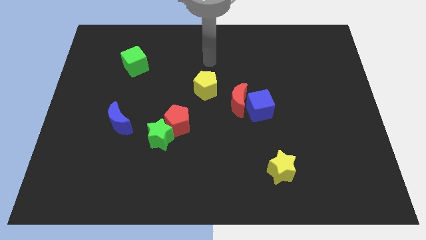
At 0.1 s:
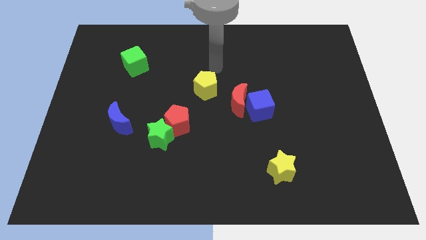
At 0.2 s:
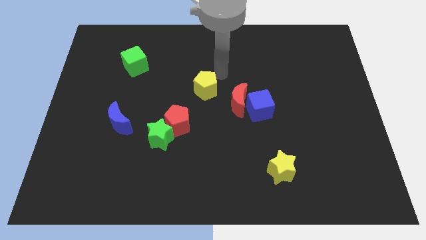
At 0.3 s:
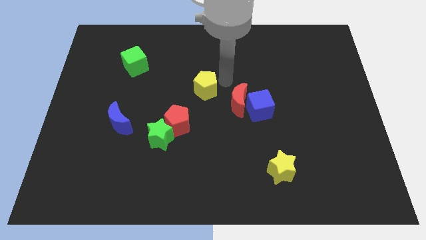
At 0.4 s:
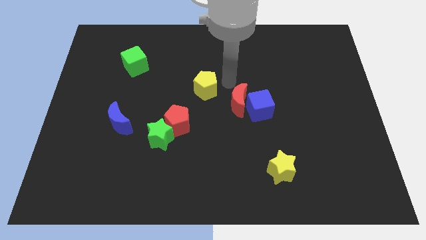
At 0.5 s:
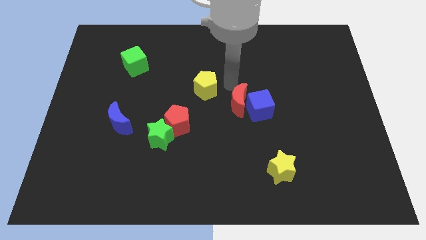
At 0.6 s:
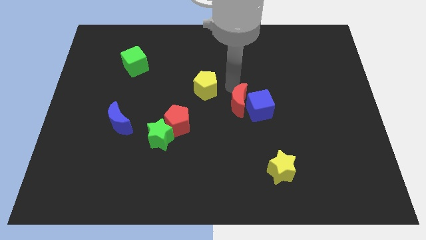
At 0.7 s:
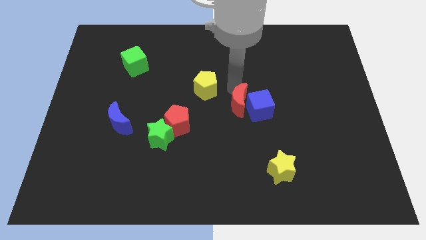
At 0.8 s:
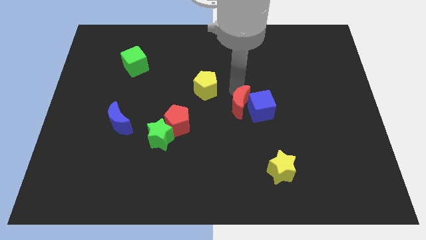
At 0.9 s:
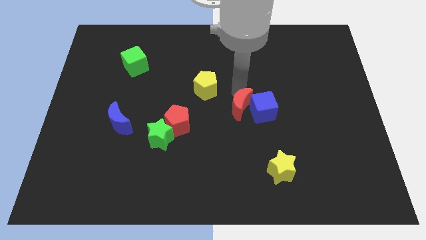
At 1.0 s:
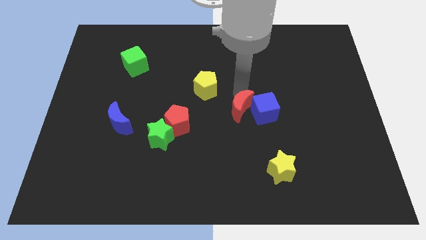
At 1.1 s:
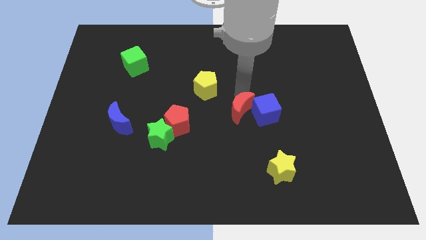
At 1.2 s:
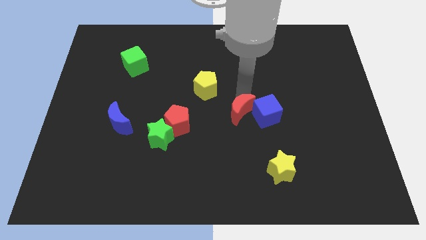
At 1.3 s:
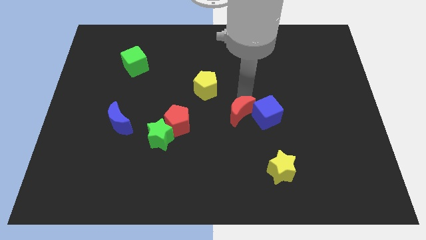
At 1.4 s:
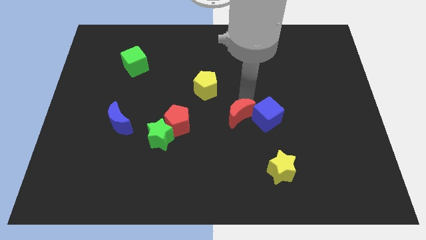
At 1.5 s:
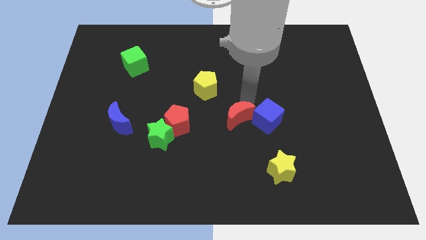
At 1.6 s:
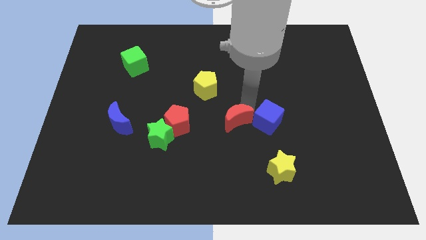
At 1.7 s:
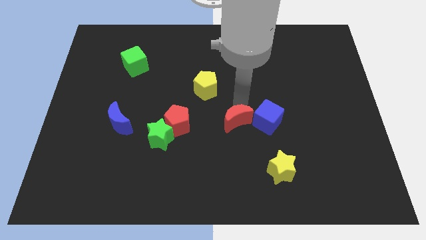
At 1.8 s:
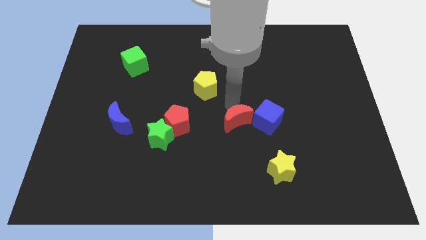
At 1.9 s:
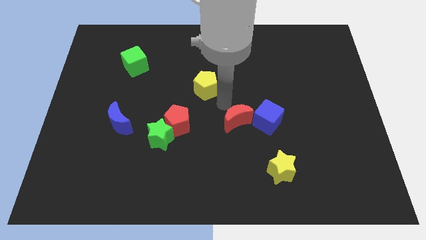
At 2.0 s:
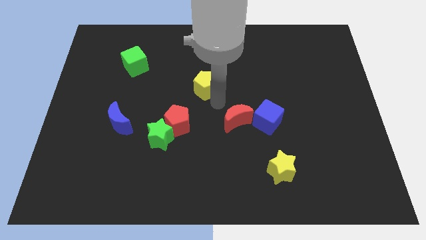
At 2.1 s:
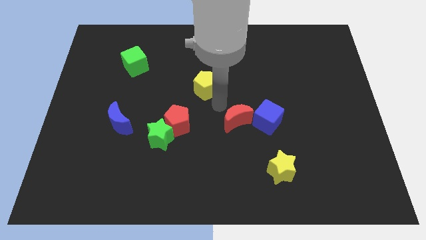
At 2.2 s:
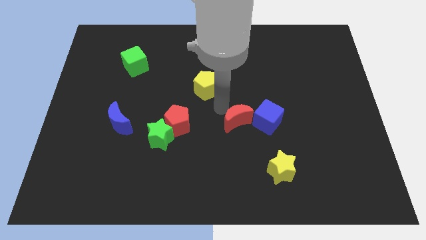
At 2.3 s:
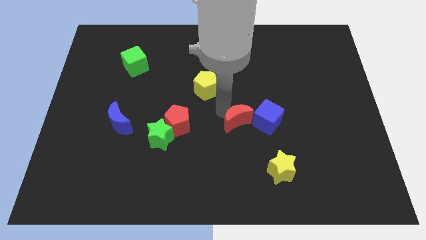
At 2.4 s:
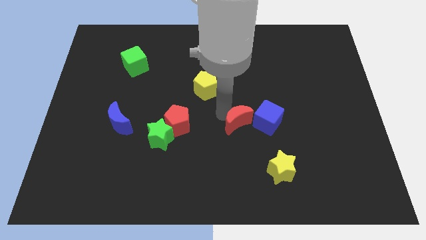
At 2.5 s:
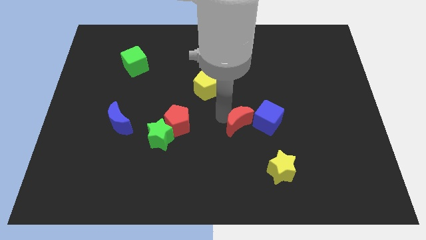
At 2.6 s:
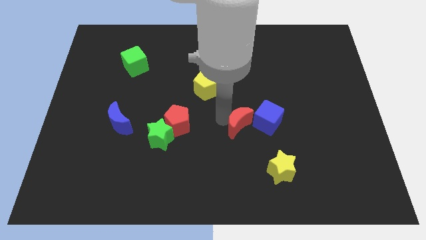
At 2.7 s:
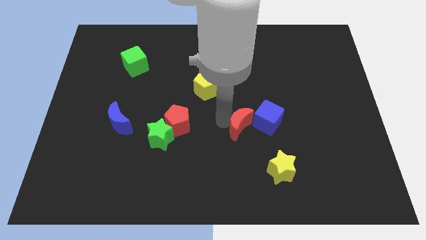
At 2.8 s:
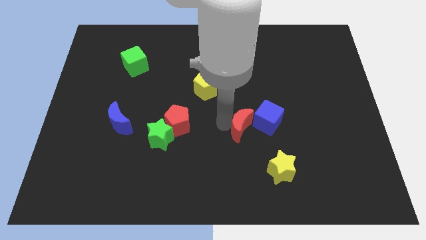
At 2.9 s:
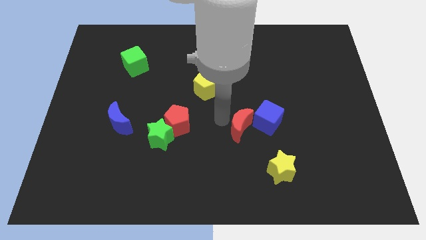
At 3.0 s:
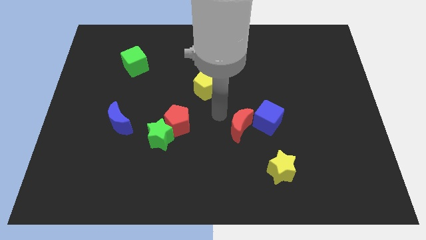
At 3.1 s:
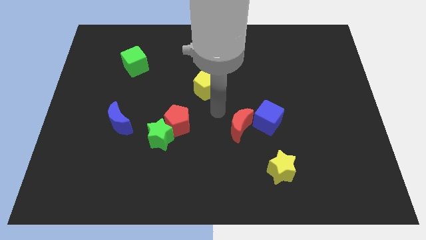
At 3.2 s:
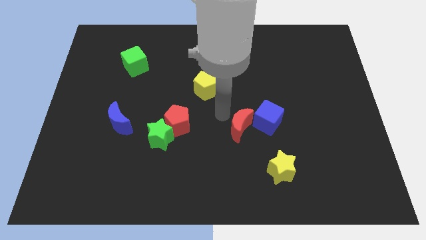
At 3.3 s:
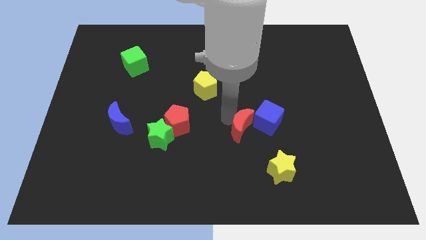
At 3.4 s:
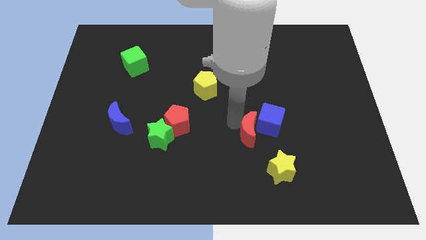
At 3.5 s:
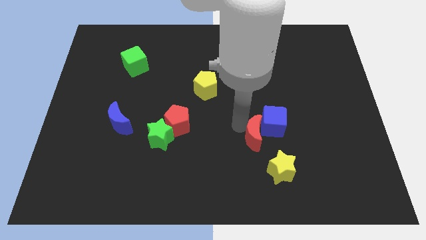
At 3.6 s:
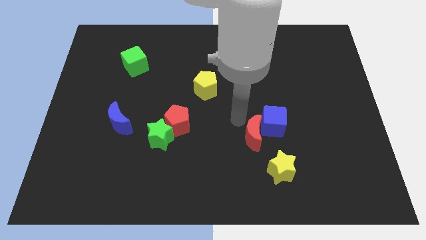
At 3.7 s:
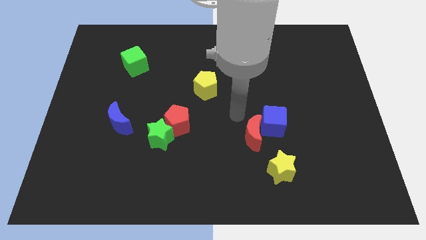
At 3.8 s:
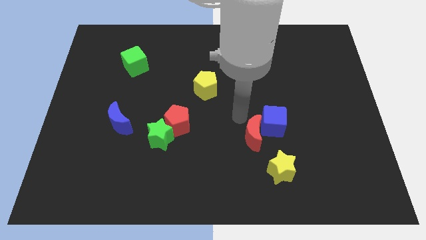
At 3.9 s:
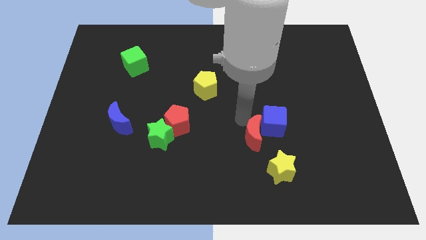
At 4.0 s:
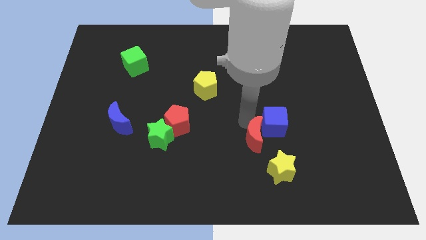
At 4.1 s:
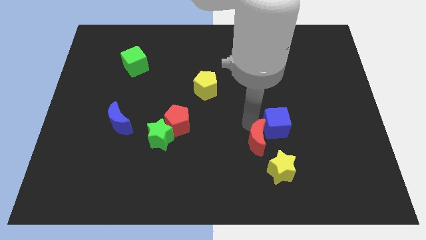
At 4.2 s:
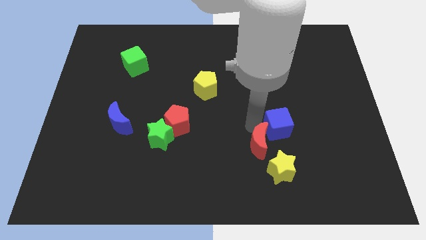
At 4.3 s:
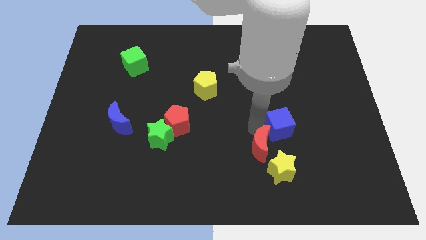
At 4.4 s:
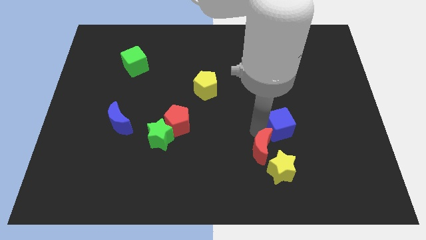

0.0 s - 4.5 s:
push the red moon to the yellow star

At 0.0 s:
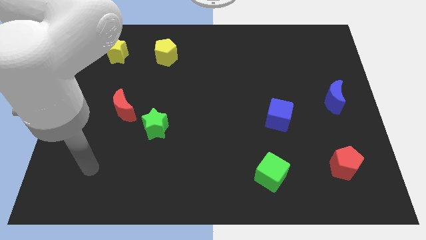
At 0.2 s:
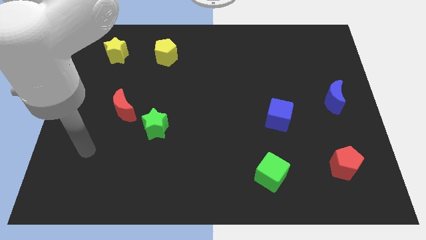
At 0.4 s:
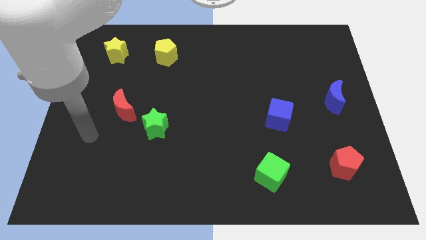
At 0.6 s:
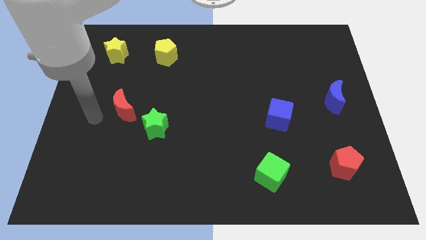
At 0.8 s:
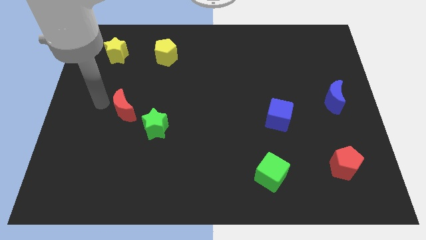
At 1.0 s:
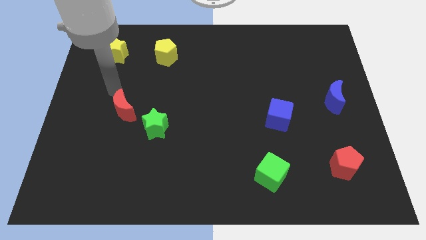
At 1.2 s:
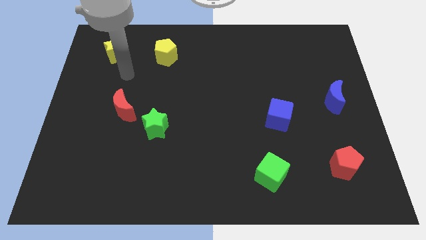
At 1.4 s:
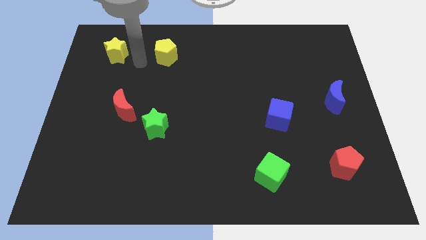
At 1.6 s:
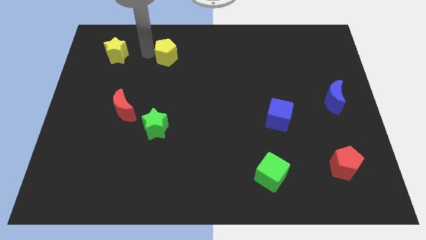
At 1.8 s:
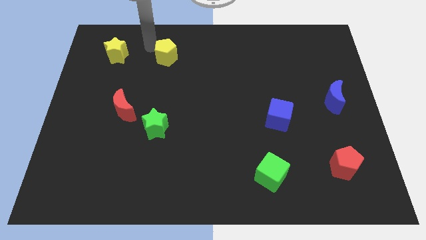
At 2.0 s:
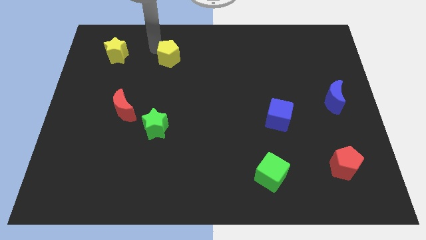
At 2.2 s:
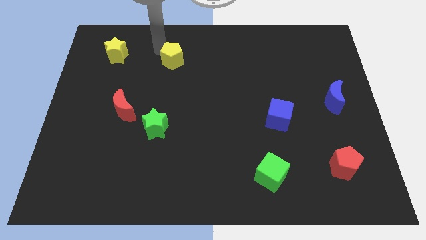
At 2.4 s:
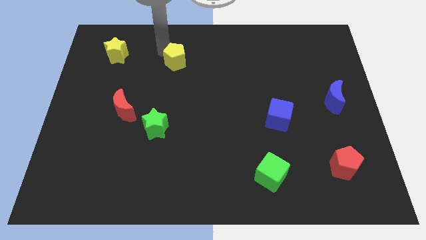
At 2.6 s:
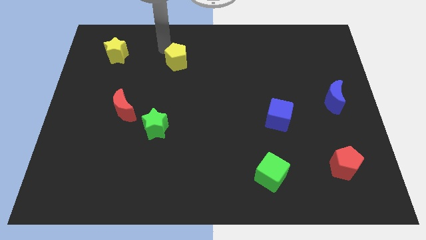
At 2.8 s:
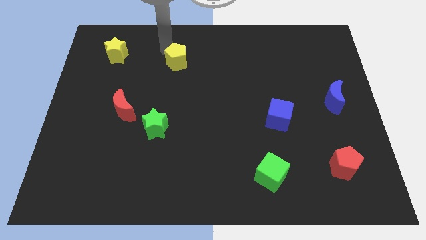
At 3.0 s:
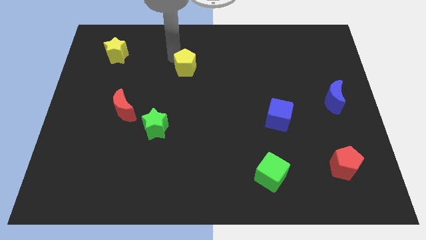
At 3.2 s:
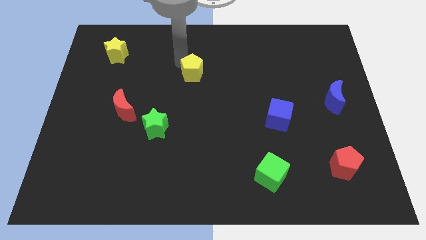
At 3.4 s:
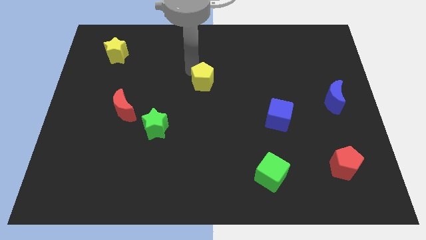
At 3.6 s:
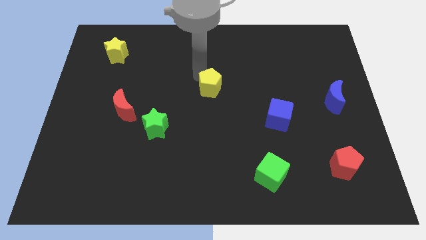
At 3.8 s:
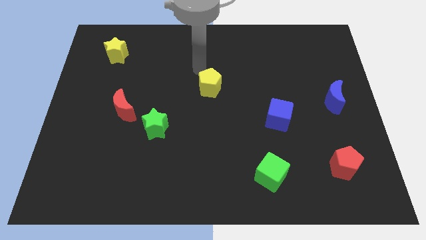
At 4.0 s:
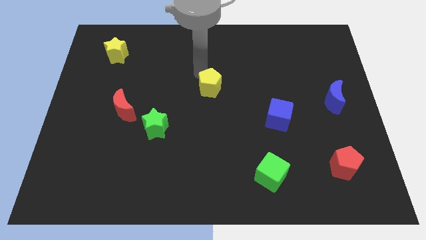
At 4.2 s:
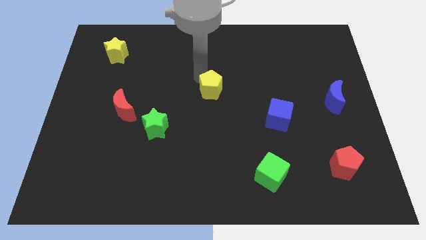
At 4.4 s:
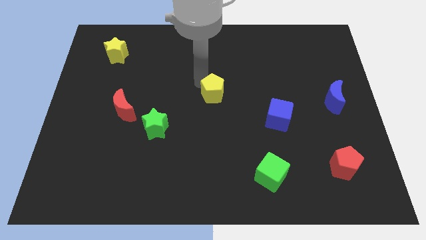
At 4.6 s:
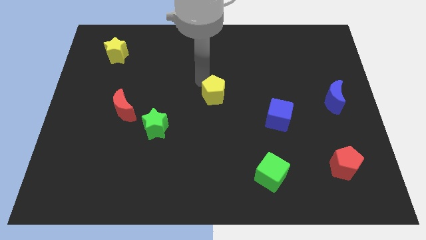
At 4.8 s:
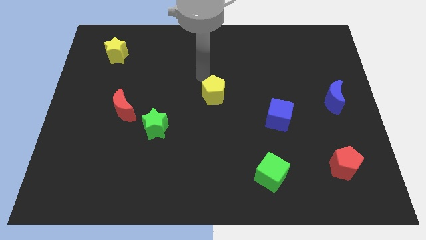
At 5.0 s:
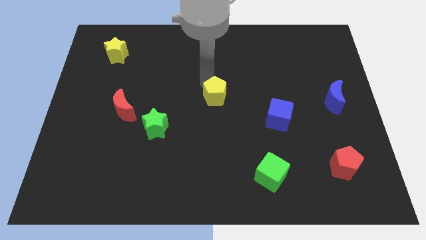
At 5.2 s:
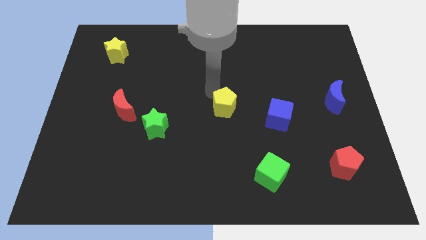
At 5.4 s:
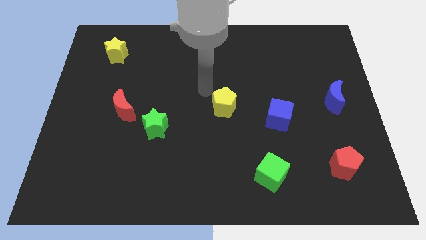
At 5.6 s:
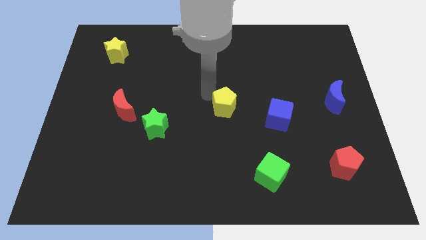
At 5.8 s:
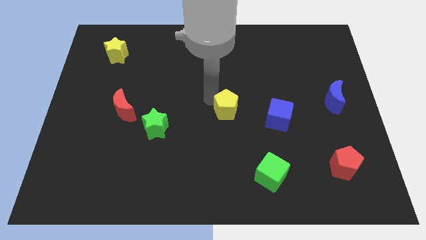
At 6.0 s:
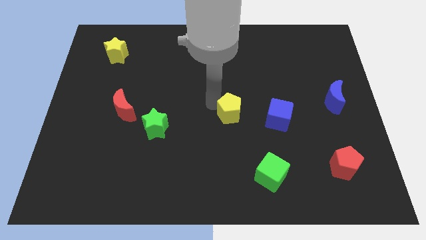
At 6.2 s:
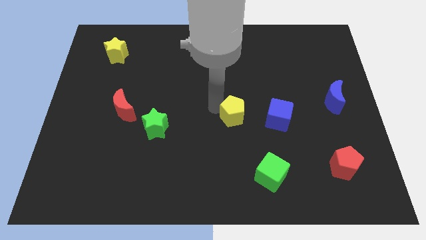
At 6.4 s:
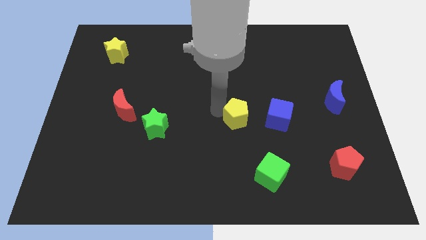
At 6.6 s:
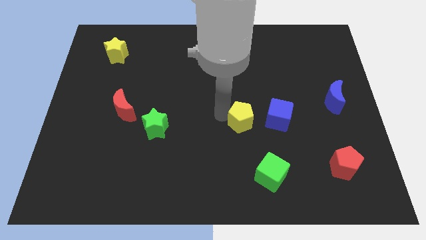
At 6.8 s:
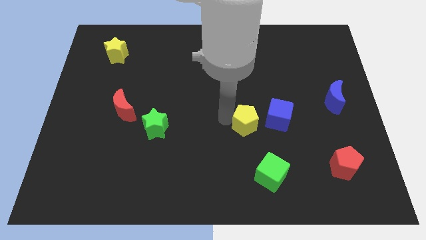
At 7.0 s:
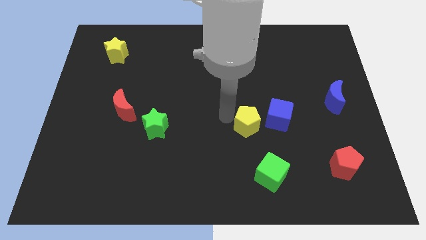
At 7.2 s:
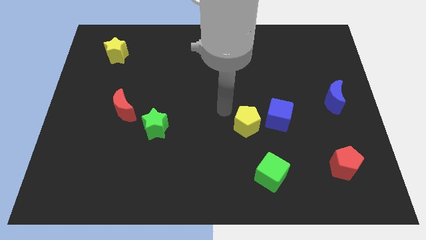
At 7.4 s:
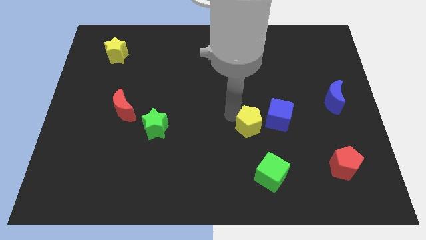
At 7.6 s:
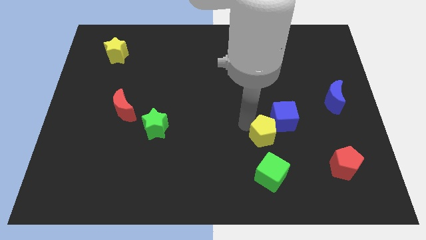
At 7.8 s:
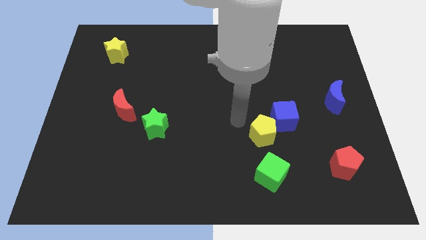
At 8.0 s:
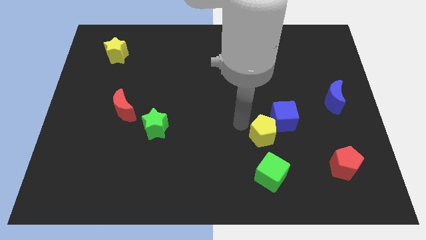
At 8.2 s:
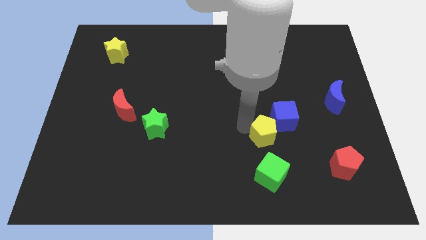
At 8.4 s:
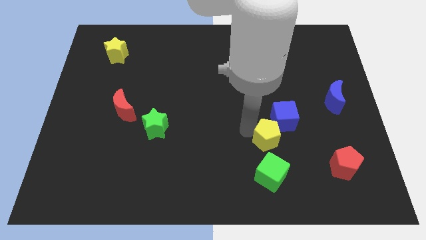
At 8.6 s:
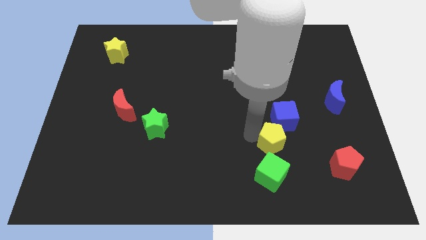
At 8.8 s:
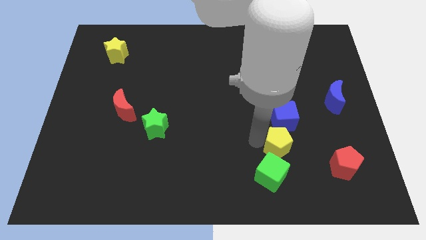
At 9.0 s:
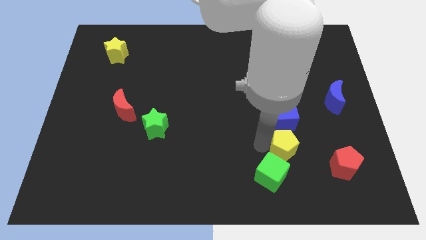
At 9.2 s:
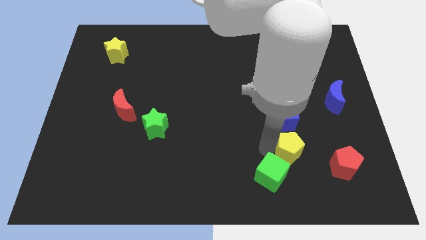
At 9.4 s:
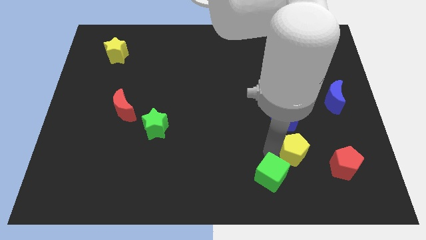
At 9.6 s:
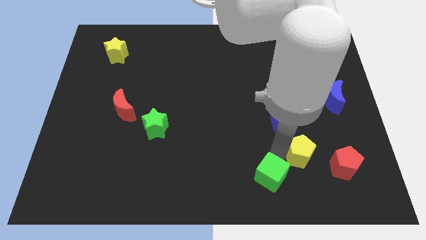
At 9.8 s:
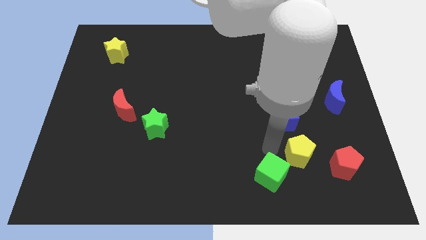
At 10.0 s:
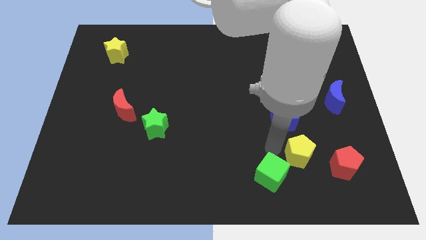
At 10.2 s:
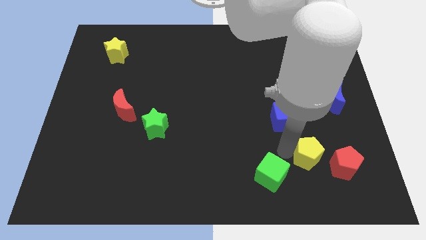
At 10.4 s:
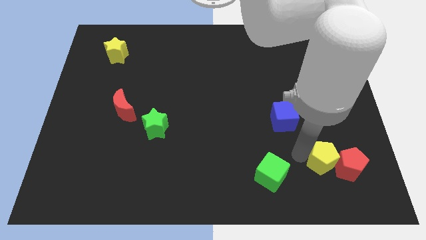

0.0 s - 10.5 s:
slide the yellow pentagon next to the red pentagon
